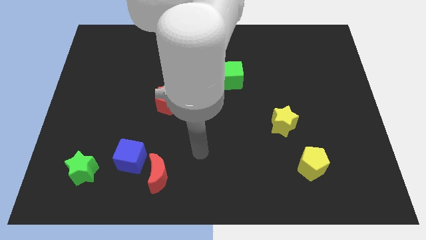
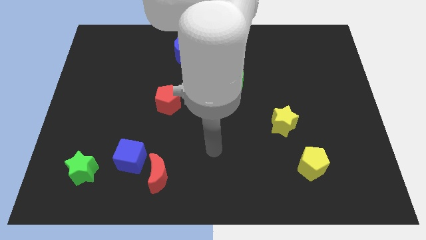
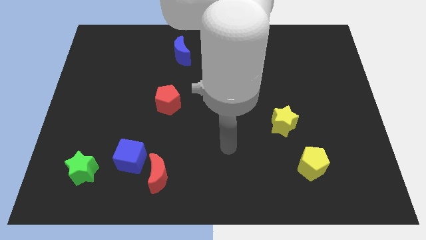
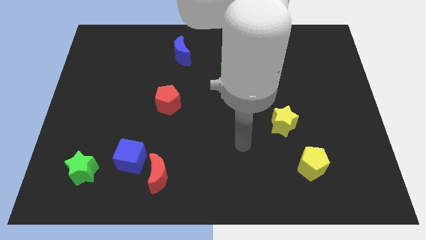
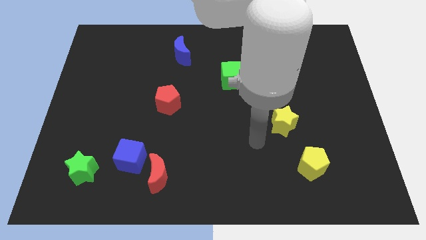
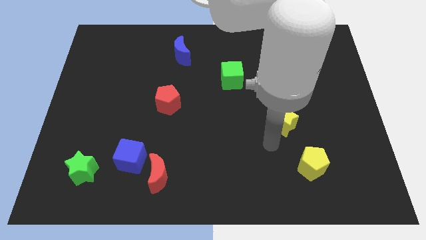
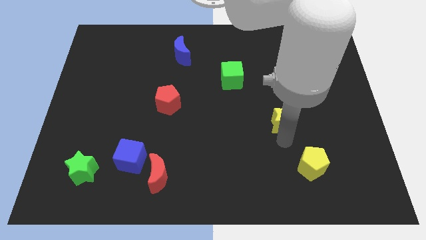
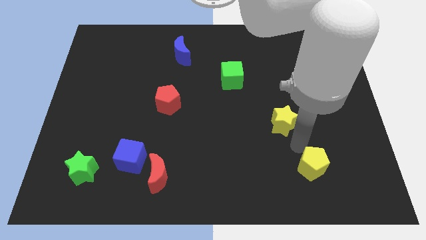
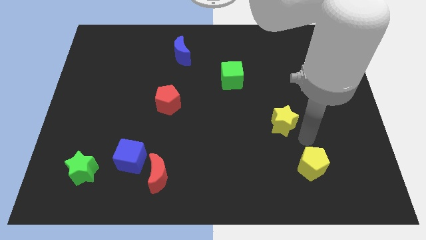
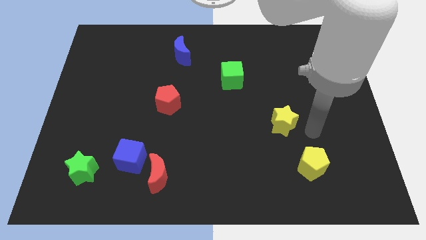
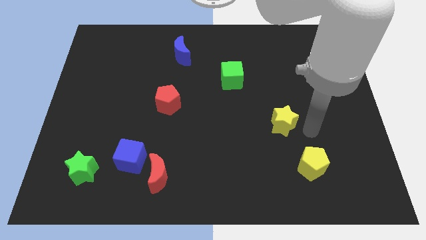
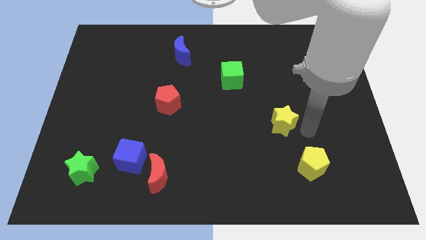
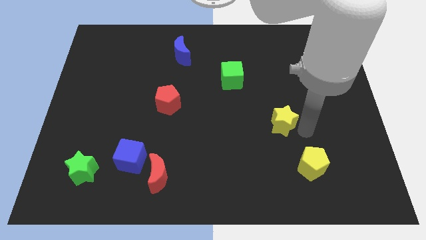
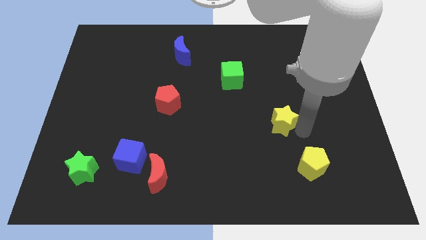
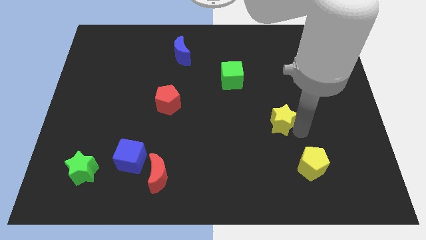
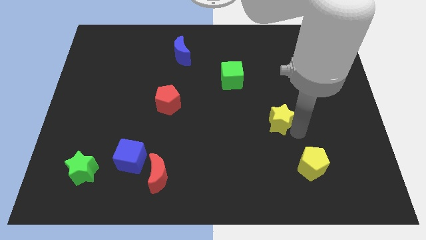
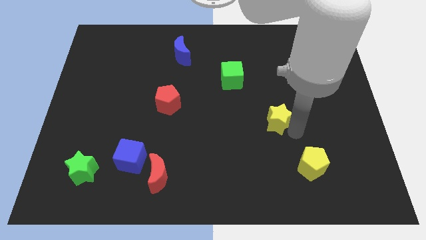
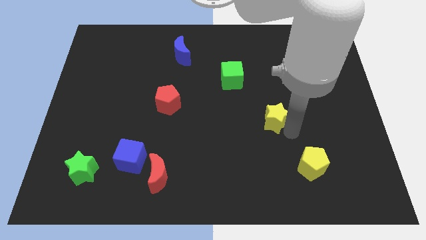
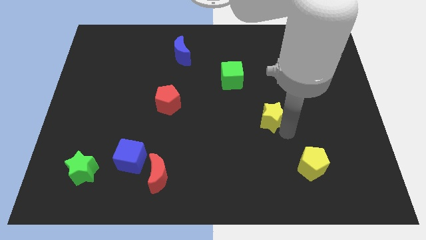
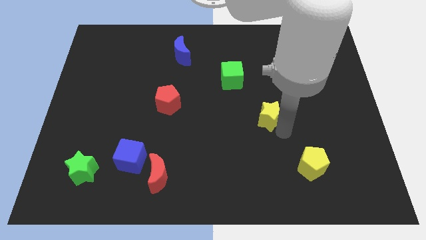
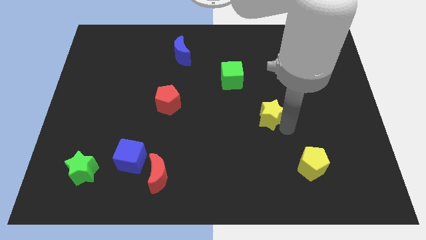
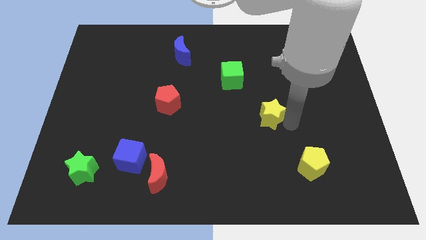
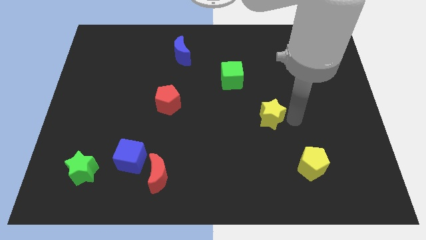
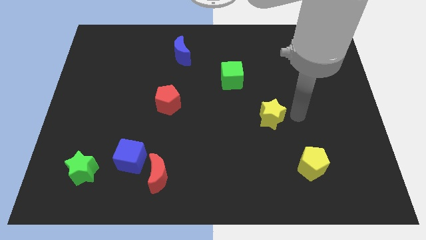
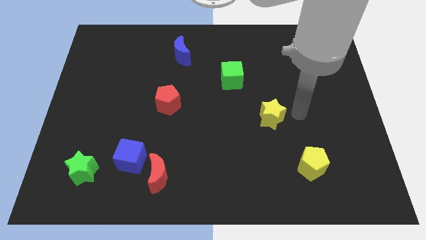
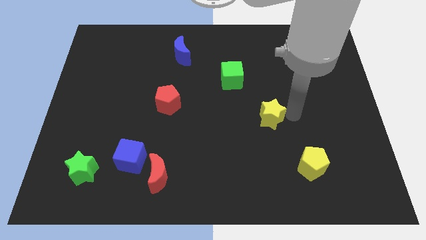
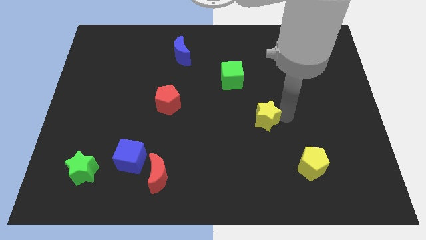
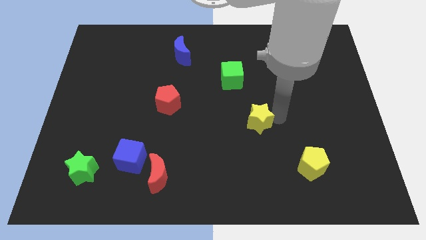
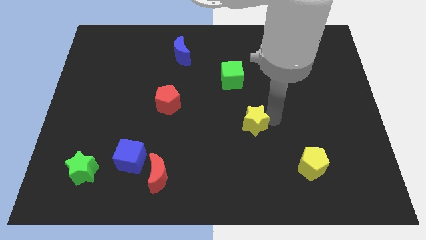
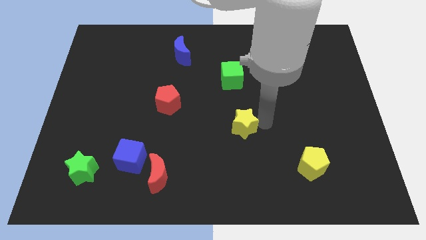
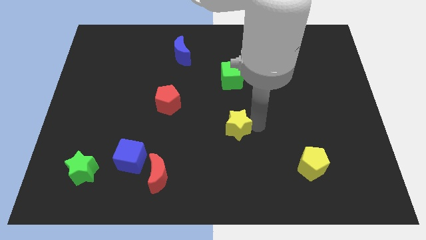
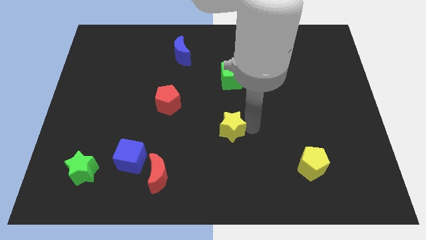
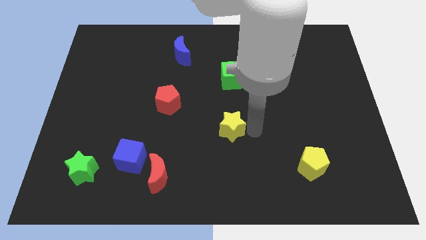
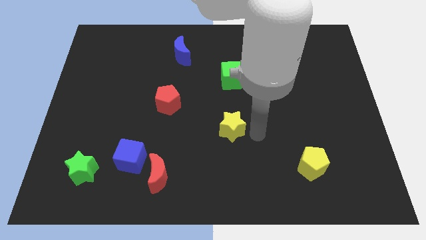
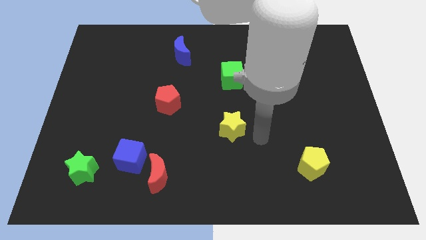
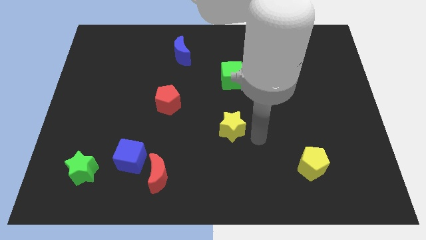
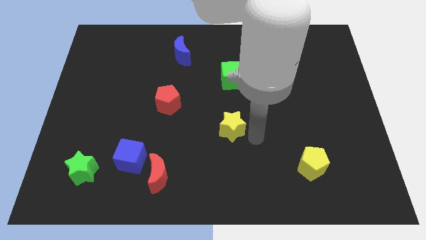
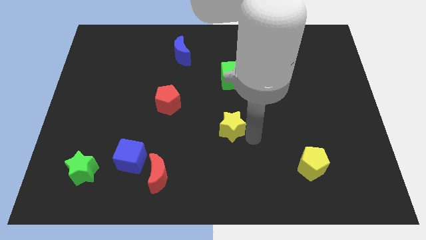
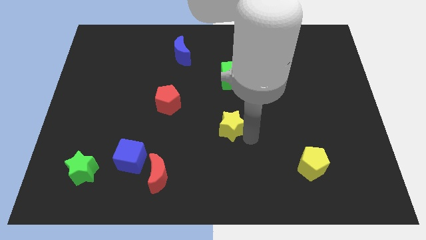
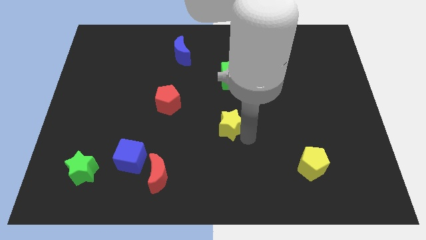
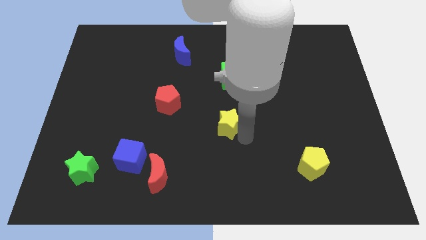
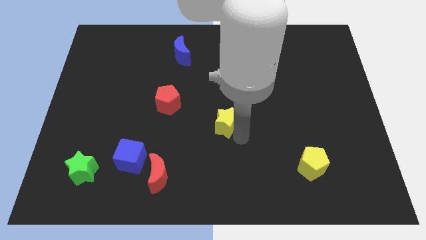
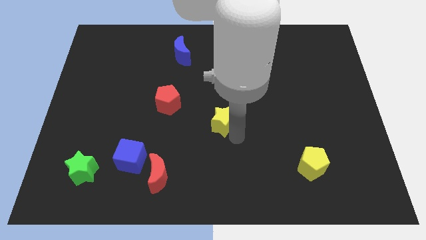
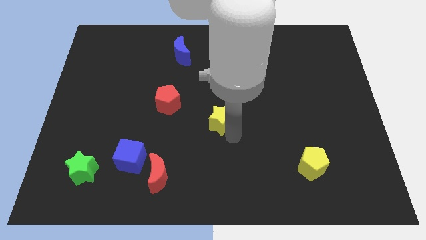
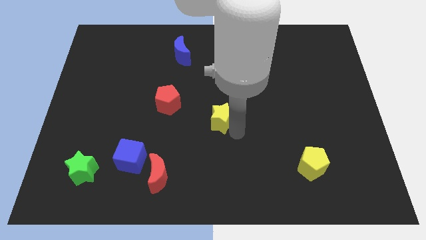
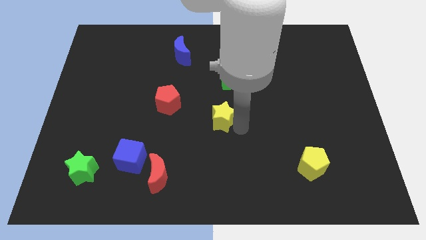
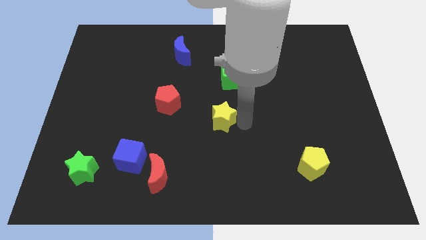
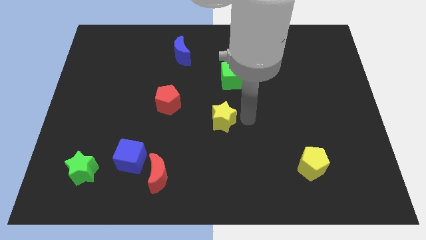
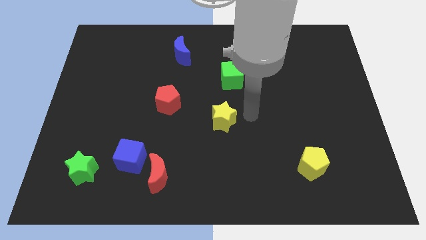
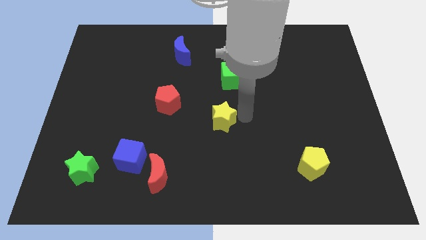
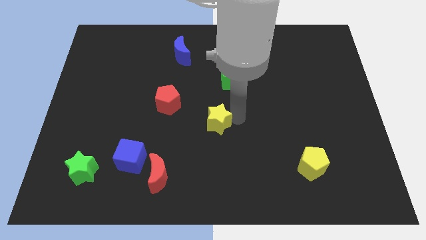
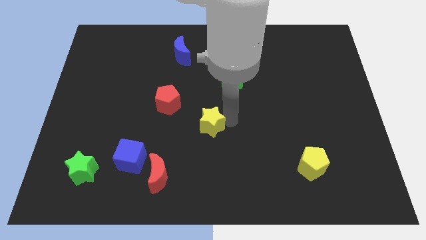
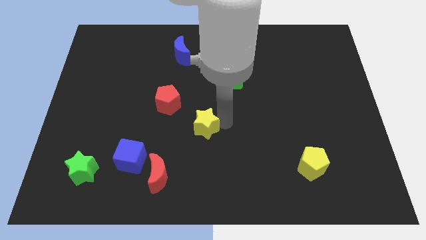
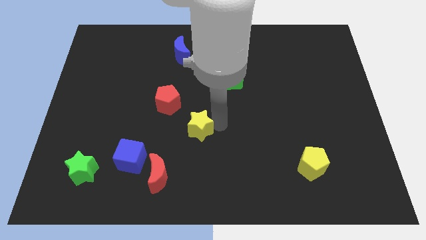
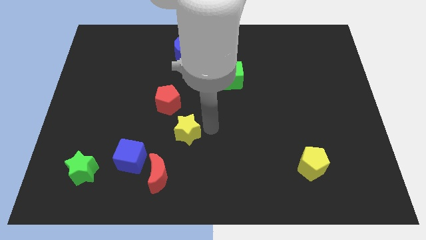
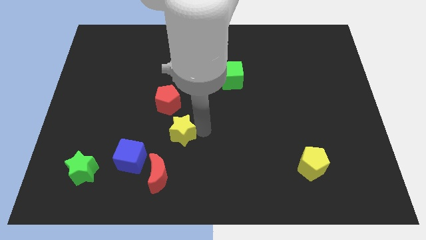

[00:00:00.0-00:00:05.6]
slide the yellow star to the top of the red moon
